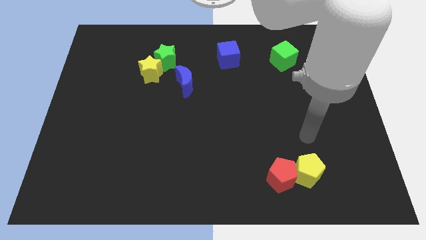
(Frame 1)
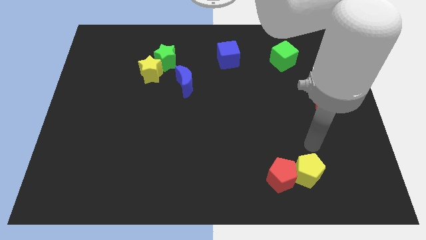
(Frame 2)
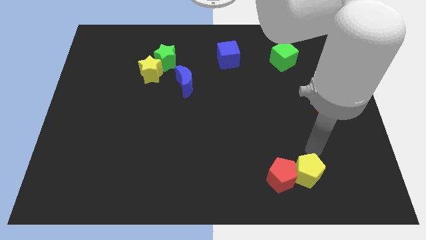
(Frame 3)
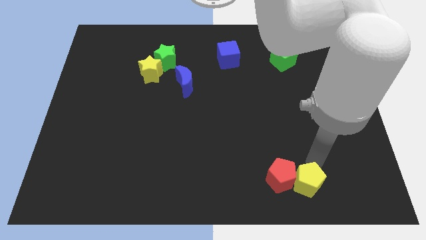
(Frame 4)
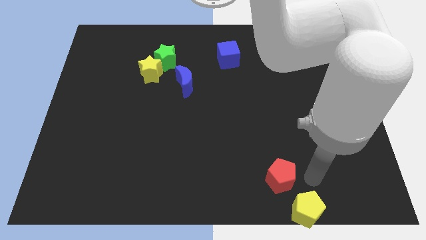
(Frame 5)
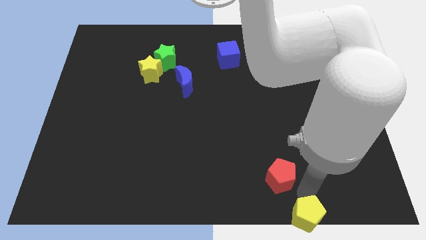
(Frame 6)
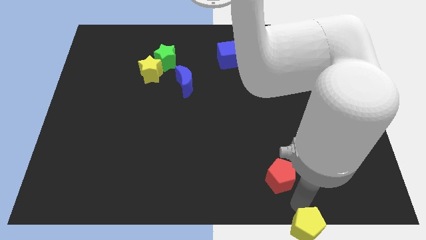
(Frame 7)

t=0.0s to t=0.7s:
move the red pentagon away from the yellow pentagon

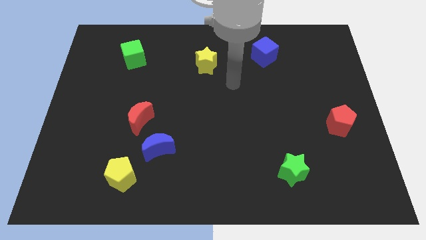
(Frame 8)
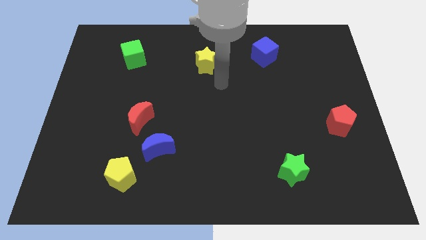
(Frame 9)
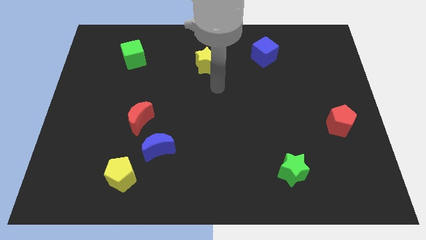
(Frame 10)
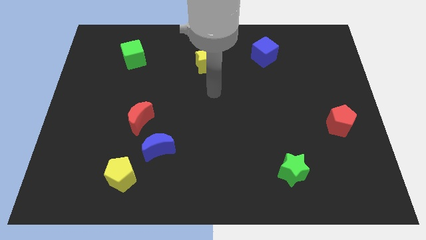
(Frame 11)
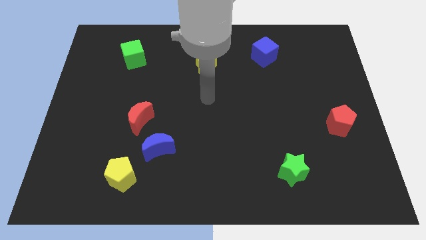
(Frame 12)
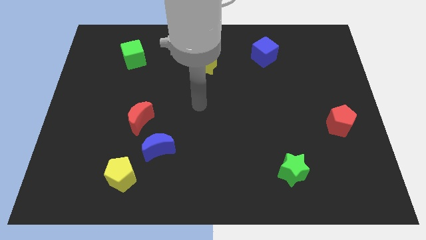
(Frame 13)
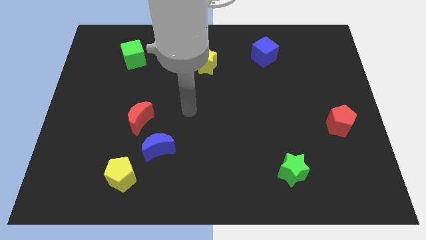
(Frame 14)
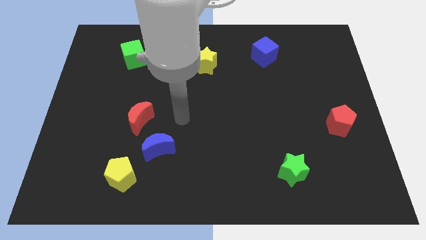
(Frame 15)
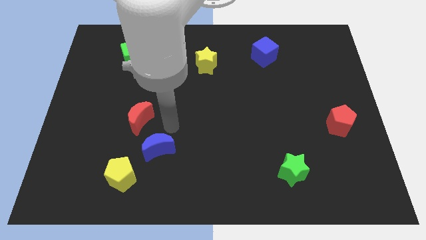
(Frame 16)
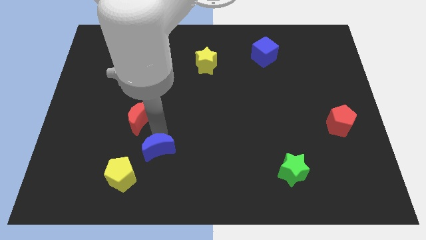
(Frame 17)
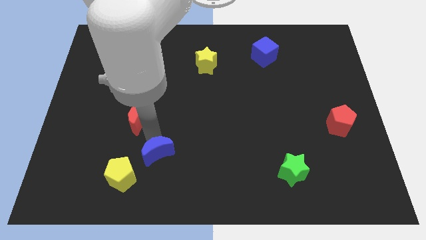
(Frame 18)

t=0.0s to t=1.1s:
pull the red moon apart from the blue moon

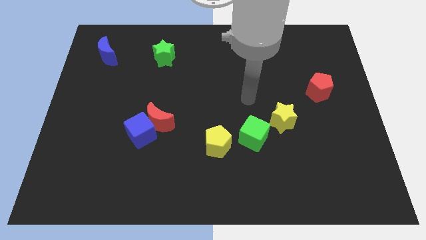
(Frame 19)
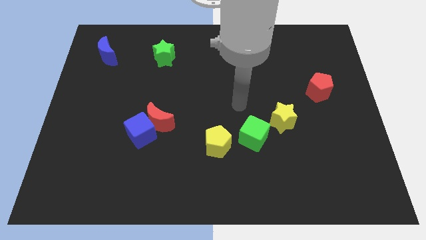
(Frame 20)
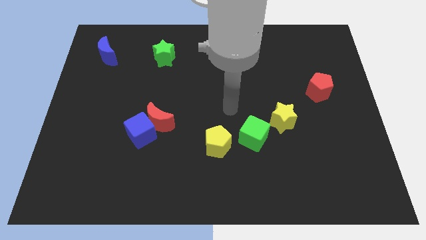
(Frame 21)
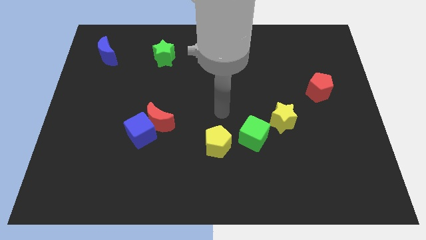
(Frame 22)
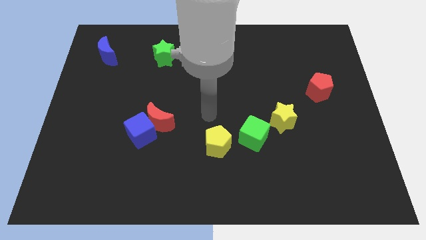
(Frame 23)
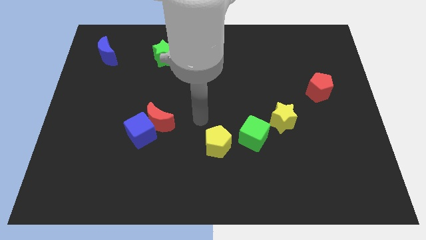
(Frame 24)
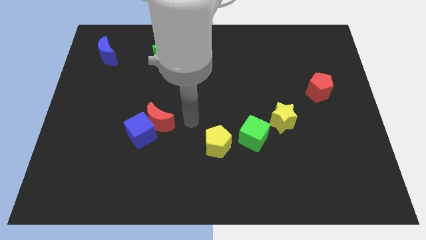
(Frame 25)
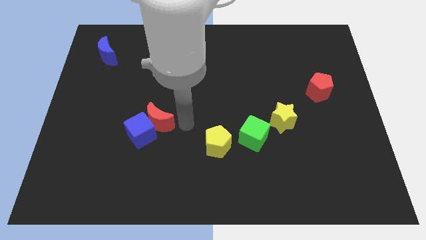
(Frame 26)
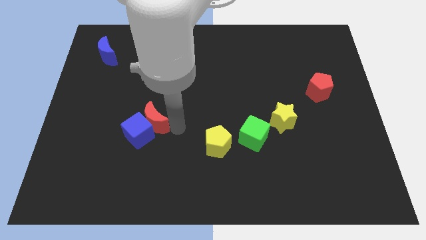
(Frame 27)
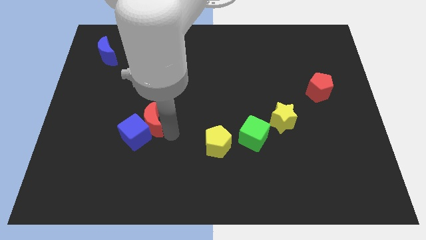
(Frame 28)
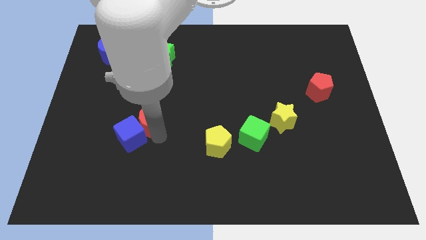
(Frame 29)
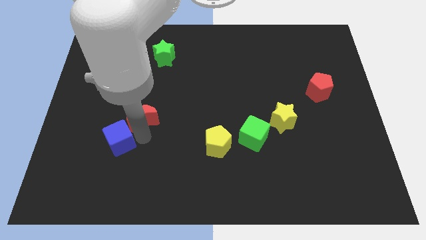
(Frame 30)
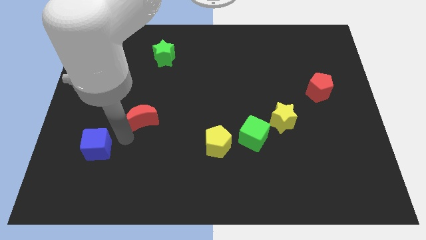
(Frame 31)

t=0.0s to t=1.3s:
separate the red moon from the blue cube

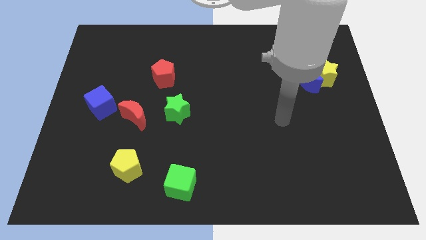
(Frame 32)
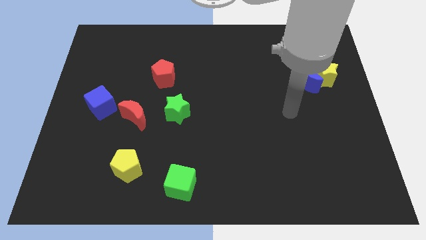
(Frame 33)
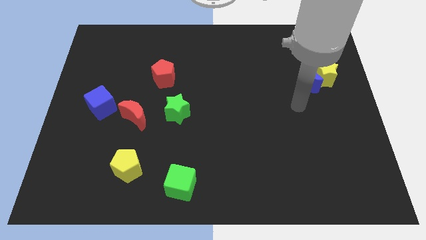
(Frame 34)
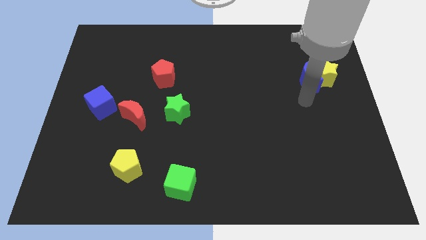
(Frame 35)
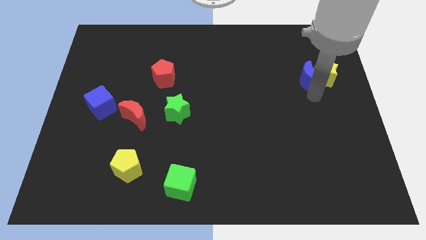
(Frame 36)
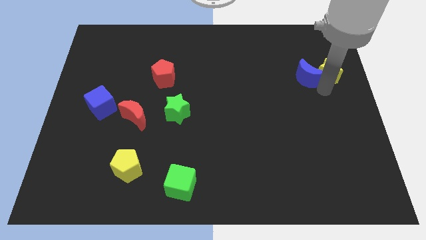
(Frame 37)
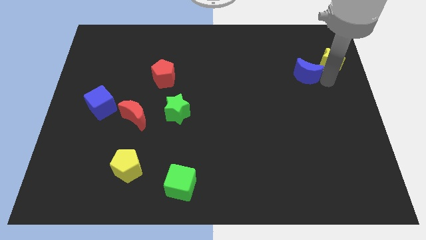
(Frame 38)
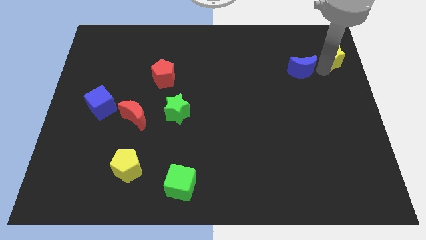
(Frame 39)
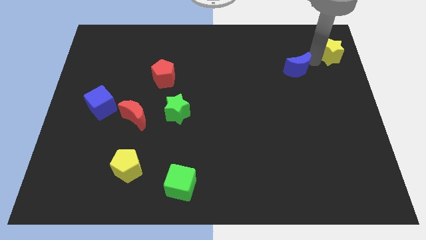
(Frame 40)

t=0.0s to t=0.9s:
separate the blue moon from the yellow star

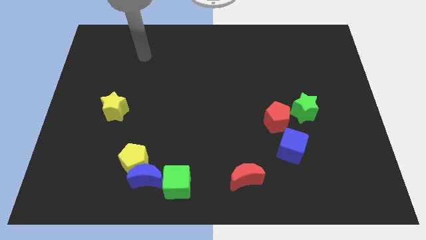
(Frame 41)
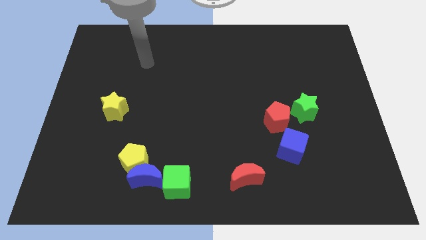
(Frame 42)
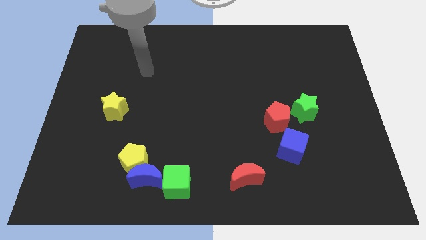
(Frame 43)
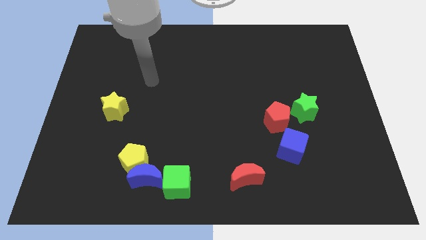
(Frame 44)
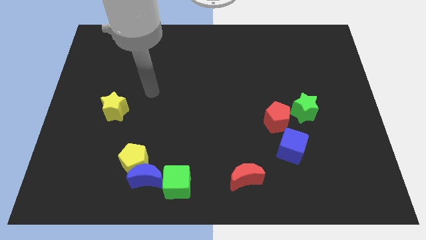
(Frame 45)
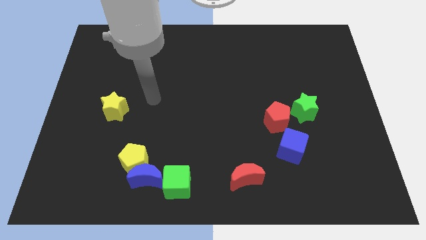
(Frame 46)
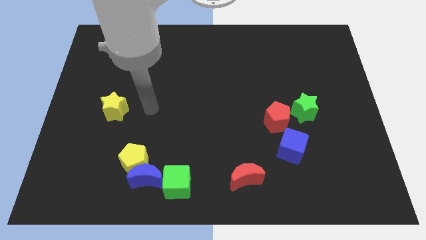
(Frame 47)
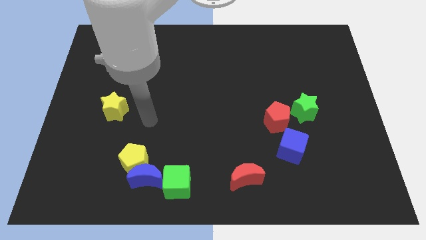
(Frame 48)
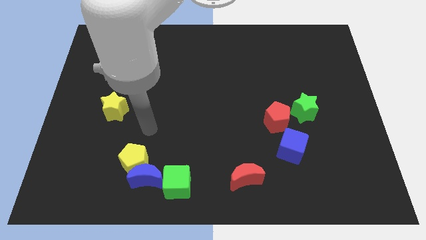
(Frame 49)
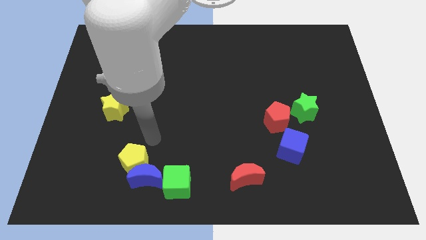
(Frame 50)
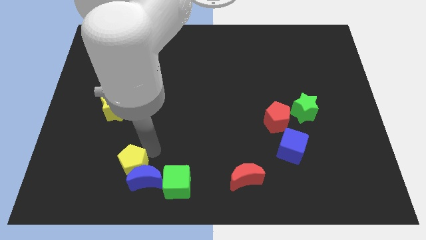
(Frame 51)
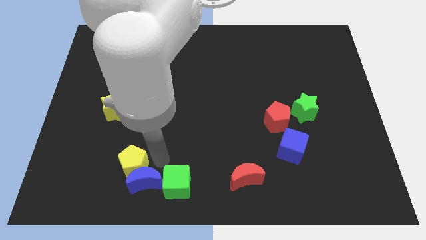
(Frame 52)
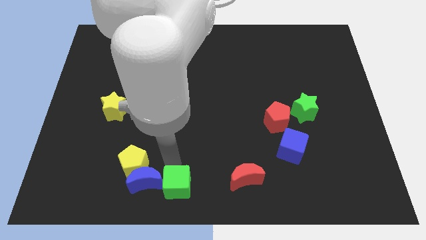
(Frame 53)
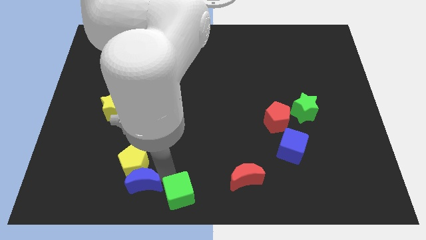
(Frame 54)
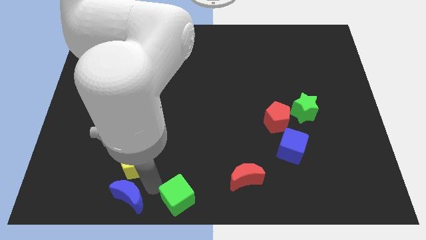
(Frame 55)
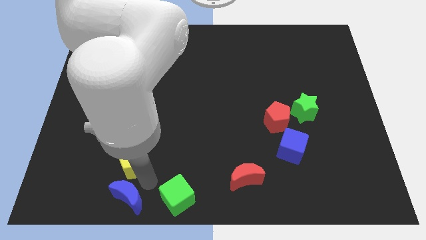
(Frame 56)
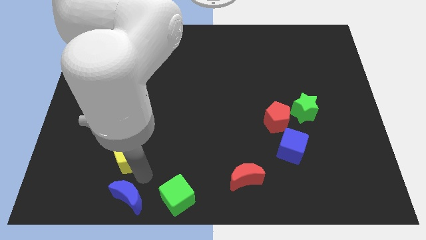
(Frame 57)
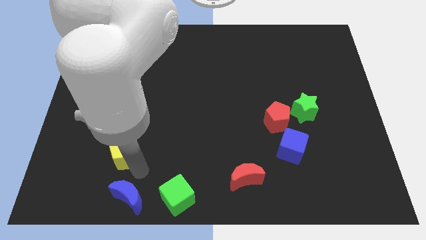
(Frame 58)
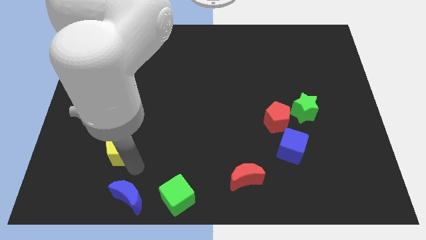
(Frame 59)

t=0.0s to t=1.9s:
move the yellow pentagon away from the blue moon

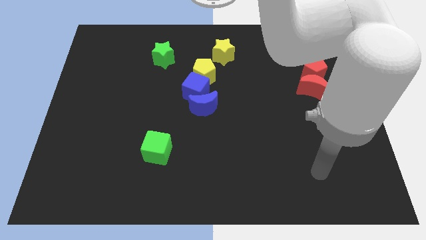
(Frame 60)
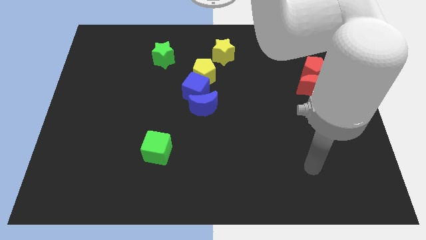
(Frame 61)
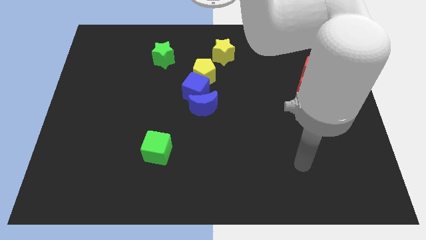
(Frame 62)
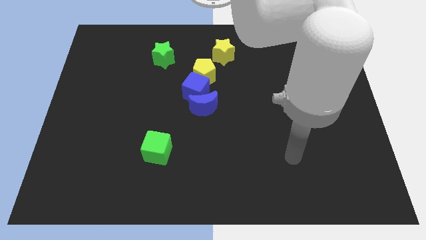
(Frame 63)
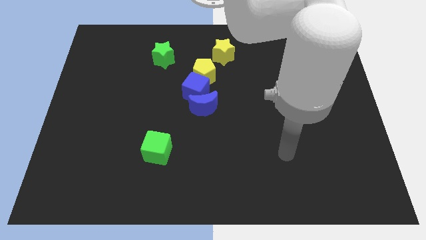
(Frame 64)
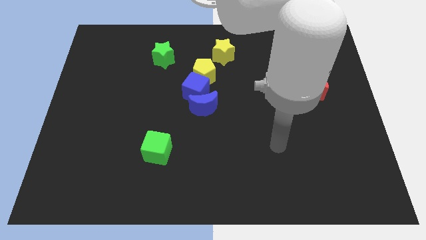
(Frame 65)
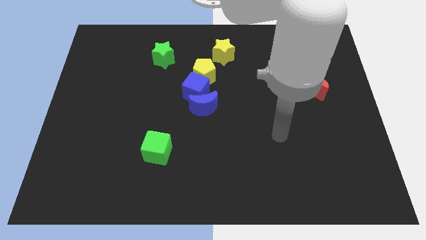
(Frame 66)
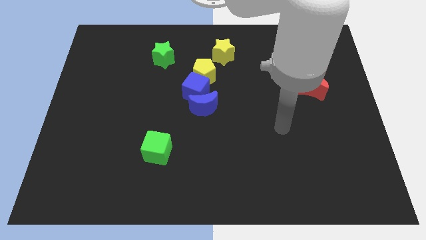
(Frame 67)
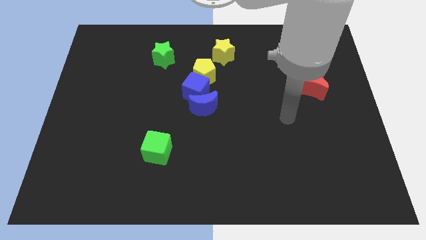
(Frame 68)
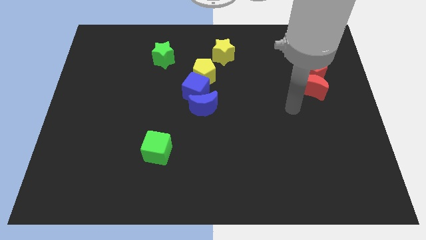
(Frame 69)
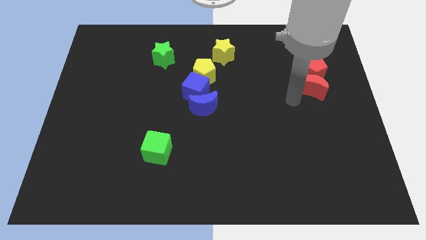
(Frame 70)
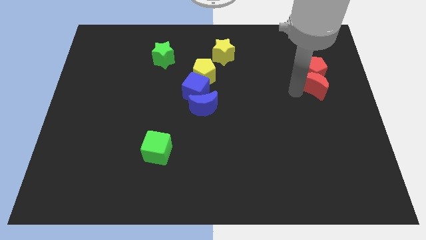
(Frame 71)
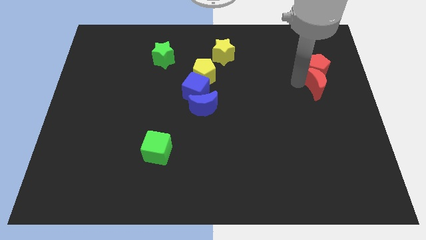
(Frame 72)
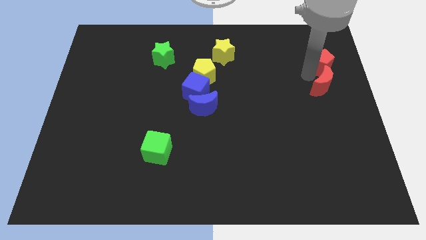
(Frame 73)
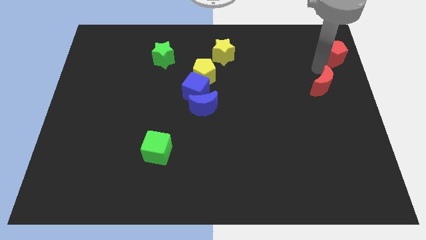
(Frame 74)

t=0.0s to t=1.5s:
pull the red moon apart from the red pentagon

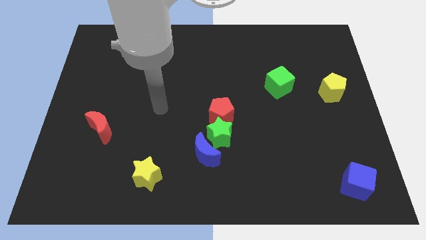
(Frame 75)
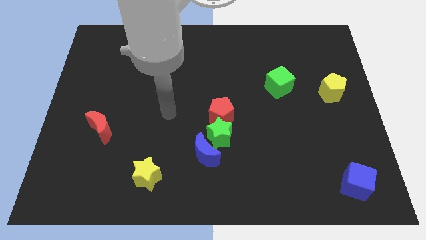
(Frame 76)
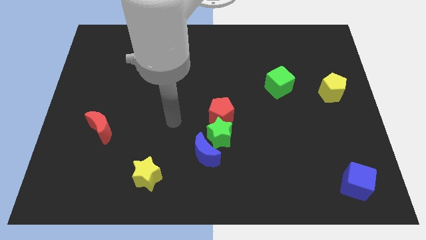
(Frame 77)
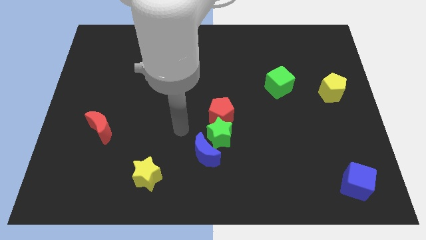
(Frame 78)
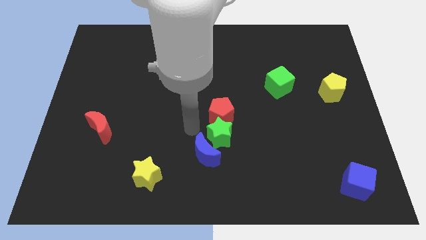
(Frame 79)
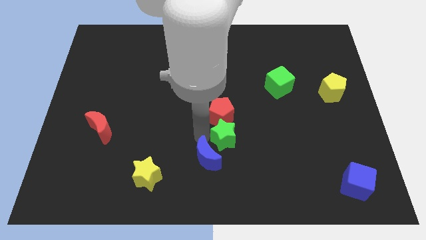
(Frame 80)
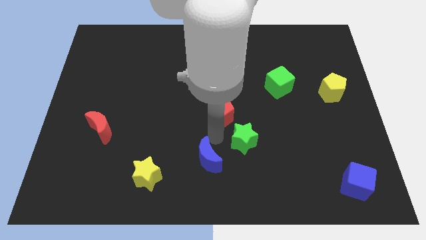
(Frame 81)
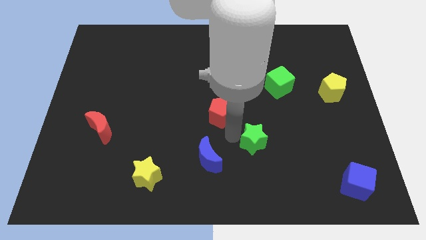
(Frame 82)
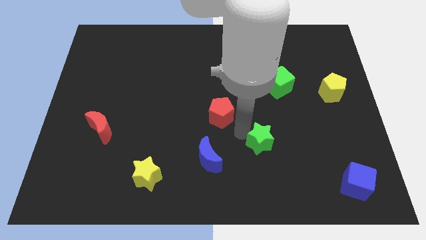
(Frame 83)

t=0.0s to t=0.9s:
pull the red pentagon apart from the green star

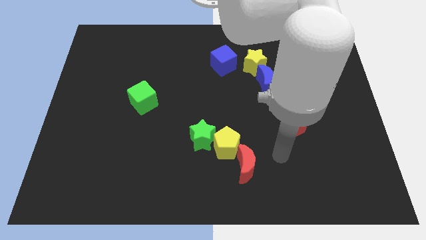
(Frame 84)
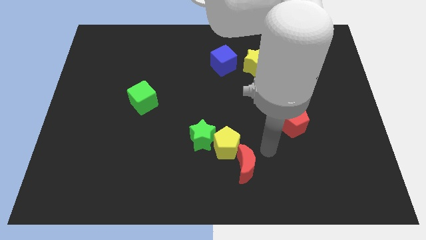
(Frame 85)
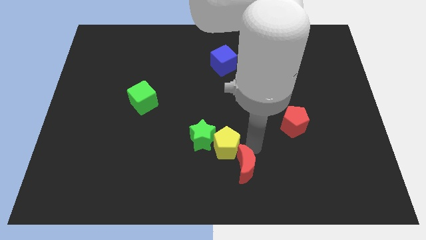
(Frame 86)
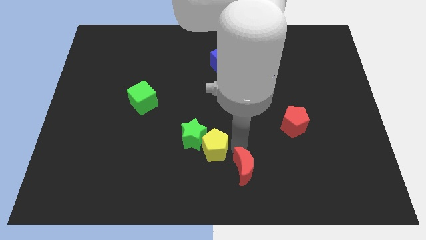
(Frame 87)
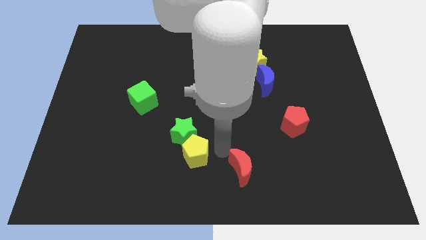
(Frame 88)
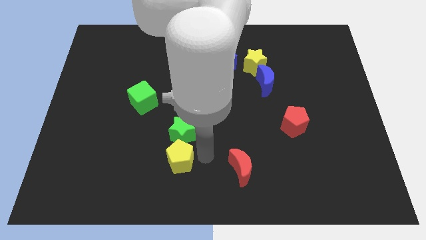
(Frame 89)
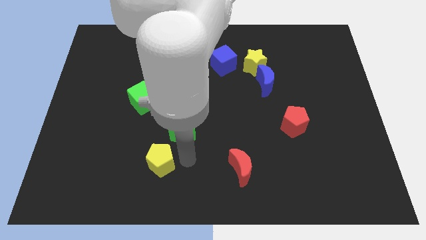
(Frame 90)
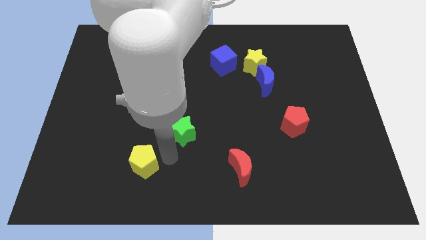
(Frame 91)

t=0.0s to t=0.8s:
pull the green star apart from the yellow pentagon

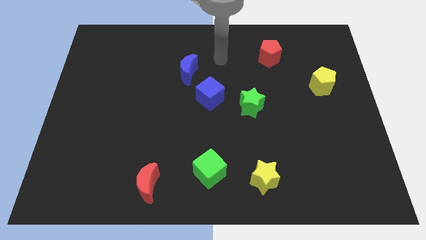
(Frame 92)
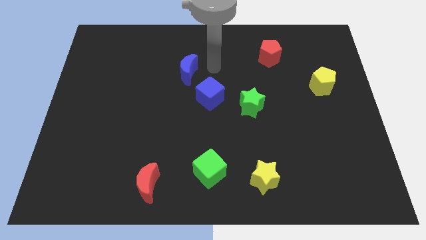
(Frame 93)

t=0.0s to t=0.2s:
move the blue moon away from the blue cube

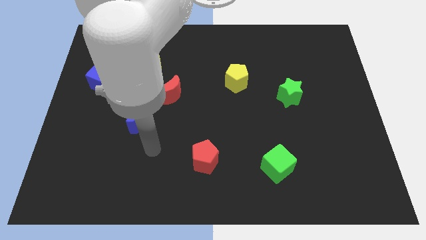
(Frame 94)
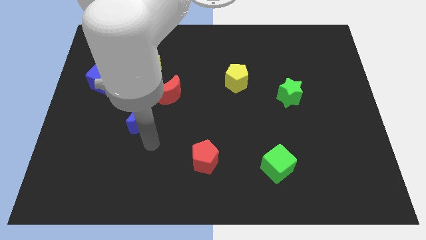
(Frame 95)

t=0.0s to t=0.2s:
separate the blue moon from the red moon
